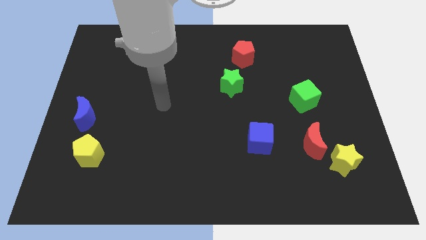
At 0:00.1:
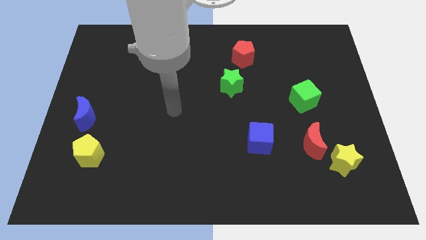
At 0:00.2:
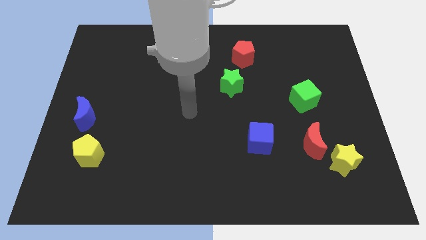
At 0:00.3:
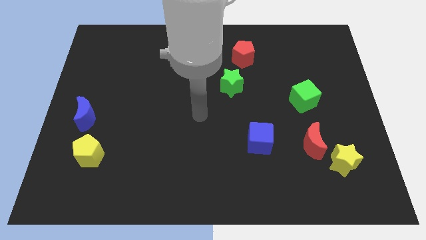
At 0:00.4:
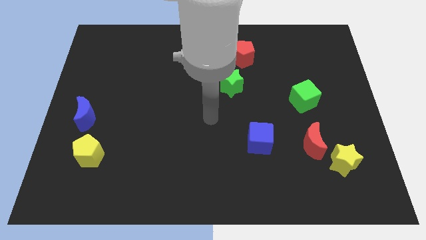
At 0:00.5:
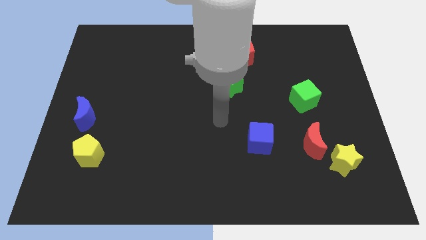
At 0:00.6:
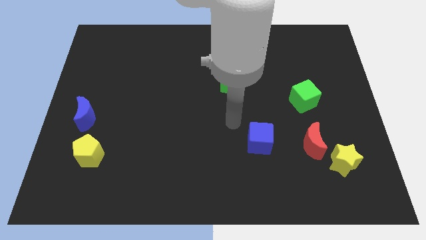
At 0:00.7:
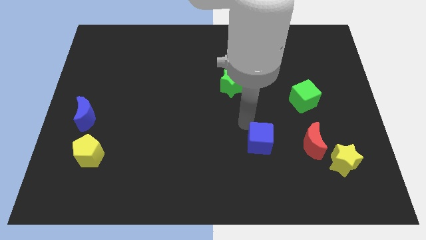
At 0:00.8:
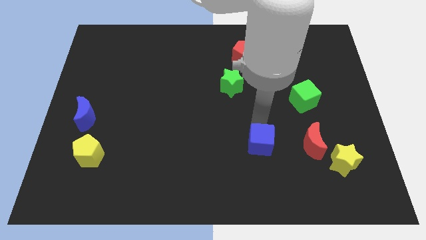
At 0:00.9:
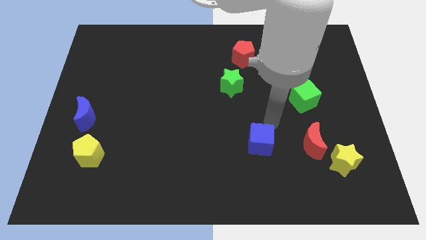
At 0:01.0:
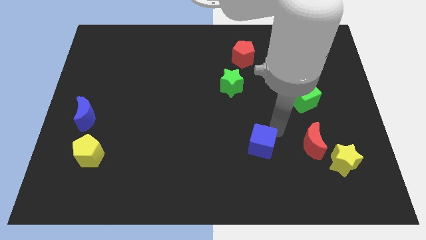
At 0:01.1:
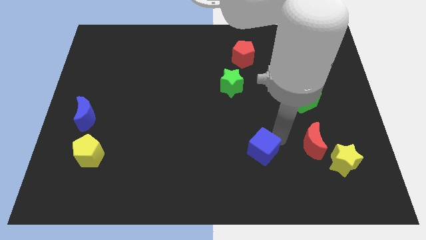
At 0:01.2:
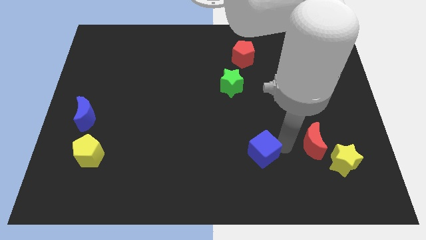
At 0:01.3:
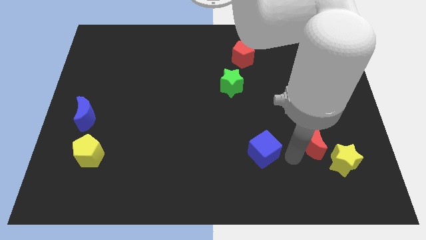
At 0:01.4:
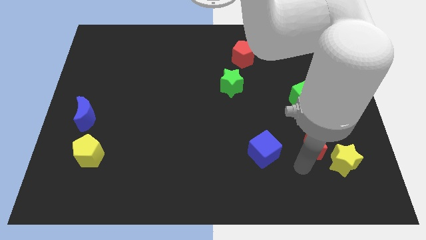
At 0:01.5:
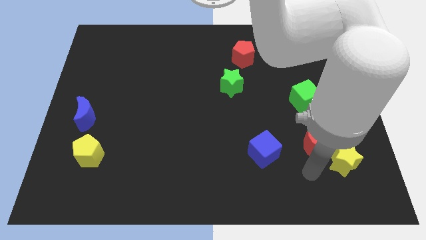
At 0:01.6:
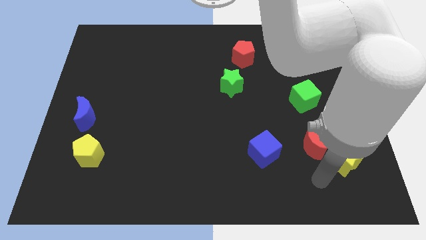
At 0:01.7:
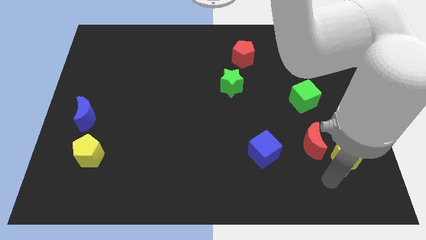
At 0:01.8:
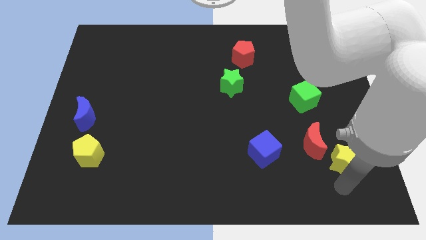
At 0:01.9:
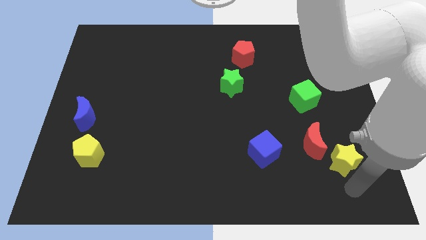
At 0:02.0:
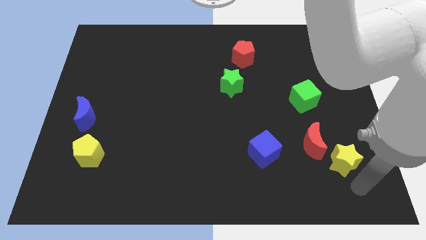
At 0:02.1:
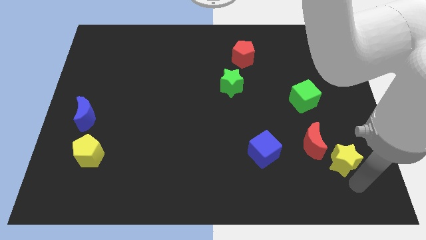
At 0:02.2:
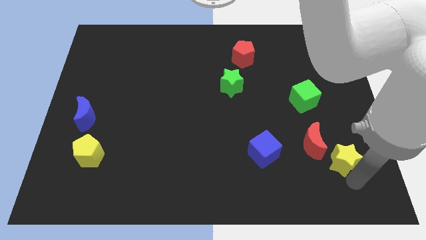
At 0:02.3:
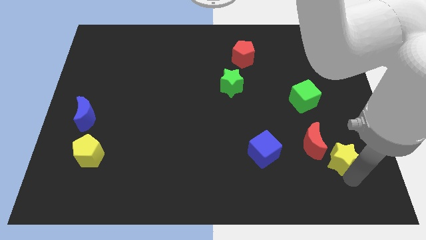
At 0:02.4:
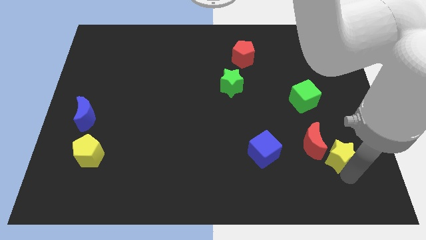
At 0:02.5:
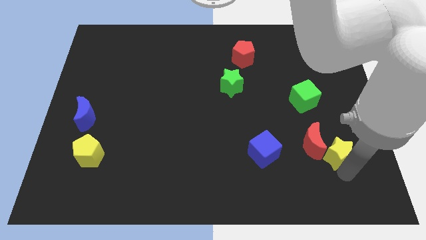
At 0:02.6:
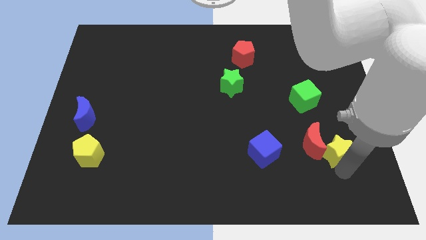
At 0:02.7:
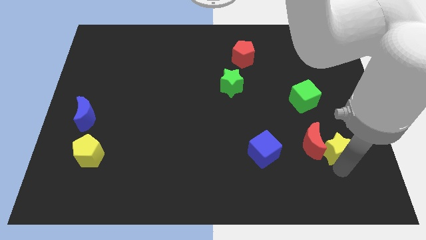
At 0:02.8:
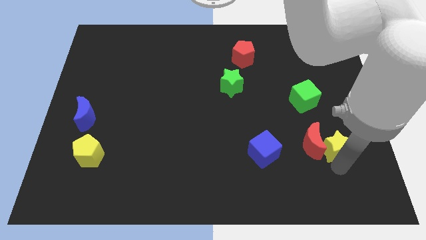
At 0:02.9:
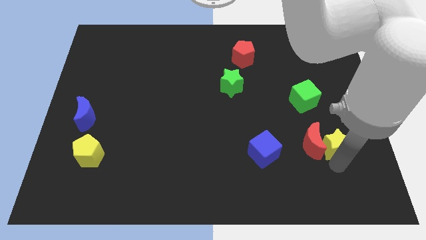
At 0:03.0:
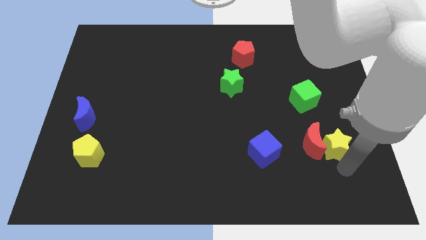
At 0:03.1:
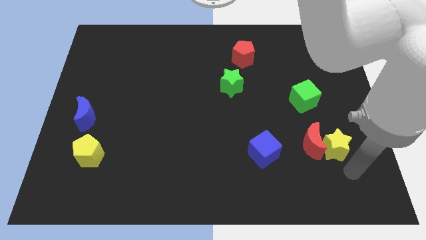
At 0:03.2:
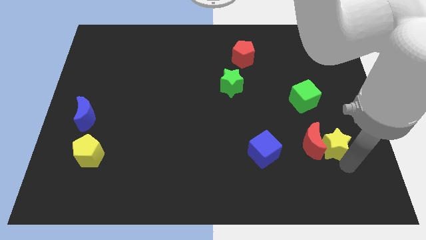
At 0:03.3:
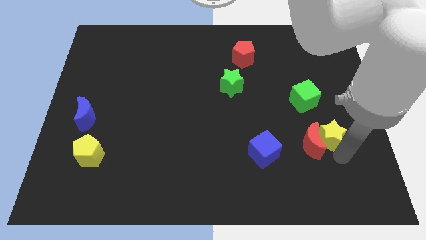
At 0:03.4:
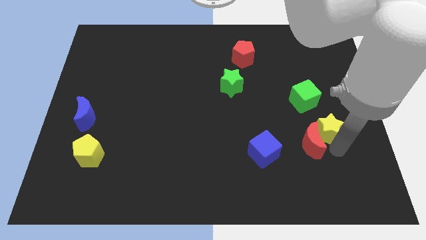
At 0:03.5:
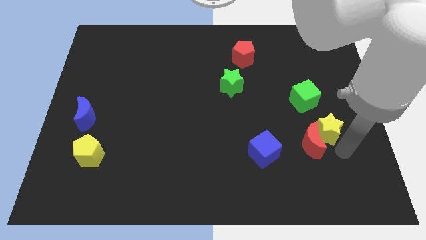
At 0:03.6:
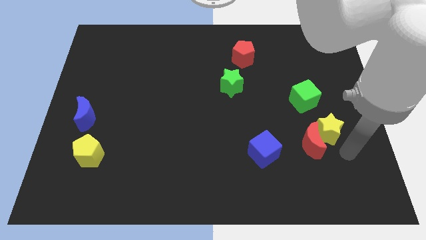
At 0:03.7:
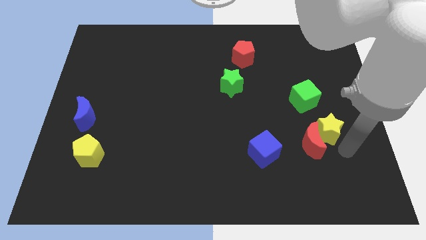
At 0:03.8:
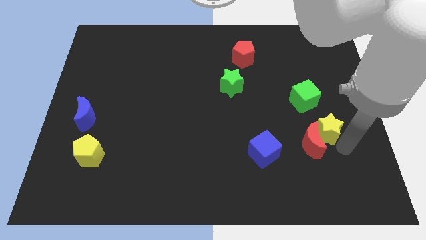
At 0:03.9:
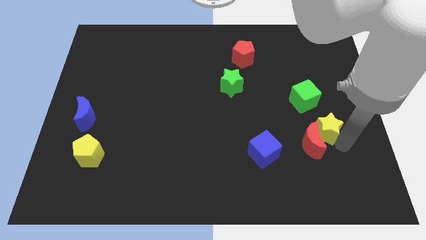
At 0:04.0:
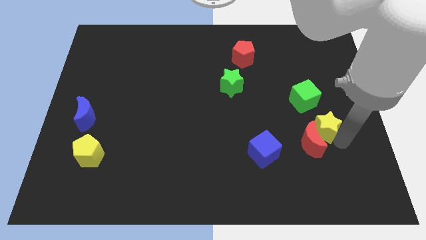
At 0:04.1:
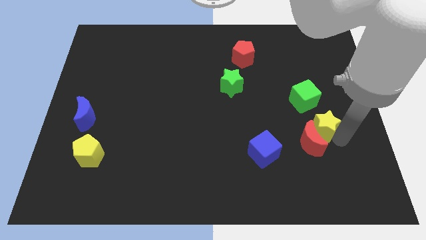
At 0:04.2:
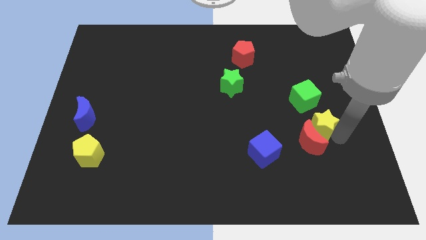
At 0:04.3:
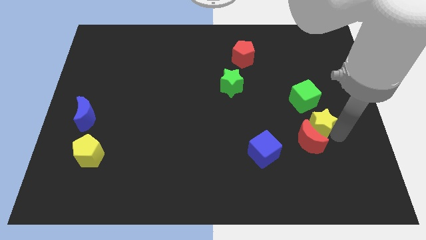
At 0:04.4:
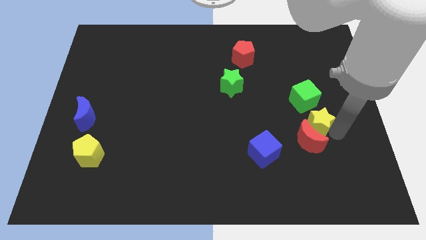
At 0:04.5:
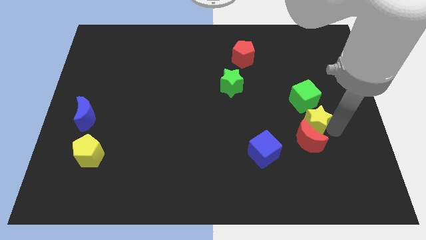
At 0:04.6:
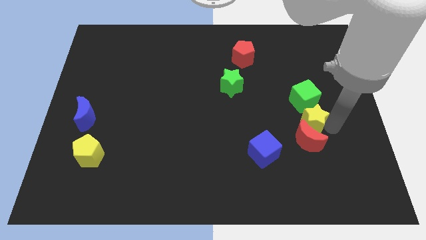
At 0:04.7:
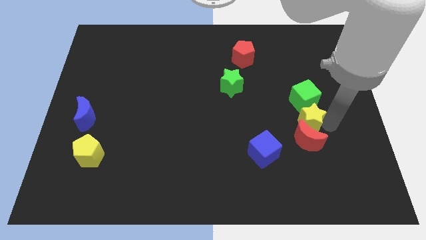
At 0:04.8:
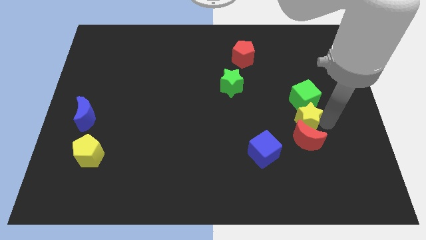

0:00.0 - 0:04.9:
slide the yellow star towards the green cube

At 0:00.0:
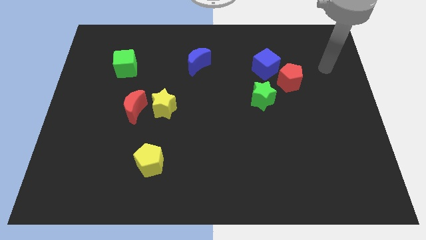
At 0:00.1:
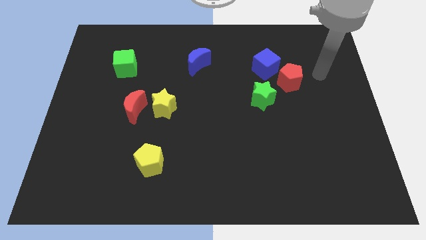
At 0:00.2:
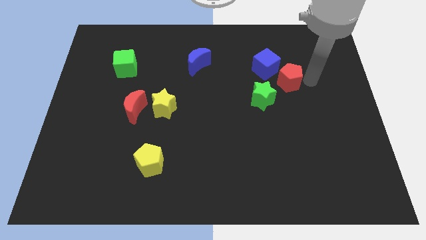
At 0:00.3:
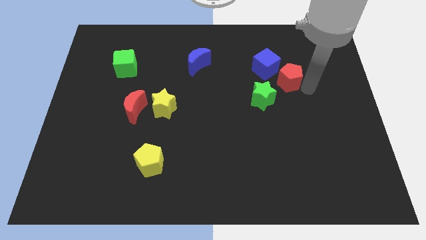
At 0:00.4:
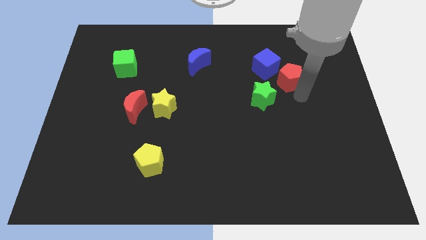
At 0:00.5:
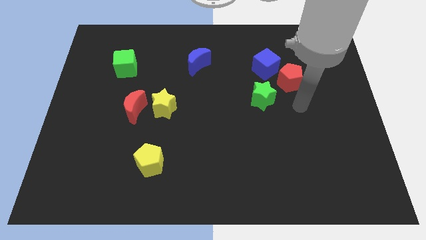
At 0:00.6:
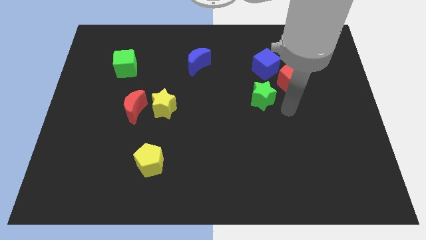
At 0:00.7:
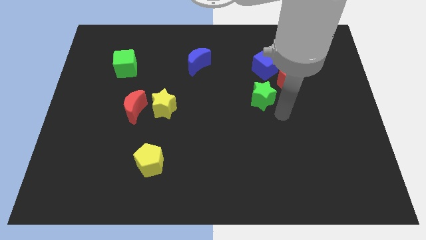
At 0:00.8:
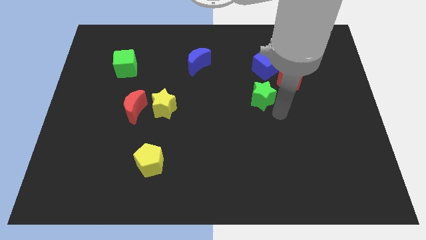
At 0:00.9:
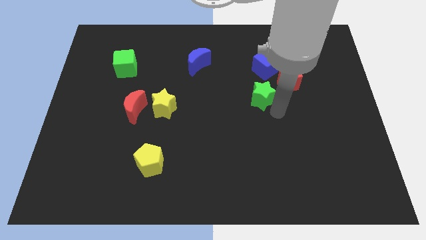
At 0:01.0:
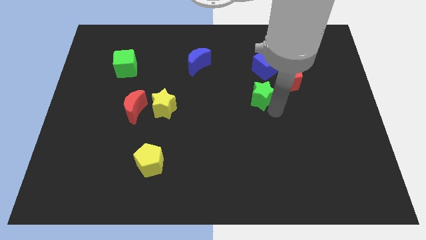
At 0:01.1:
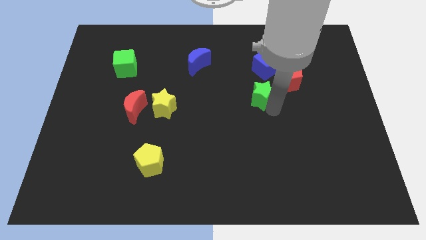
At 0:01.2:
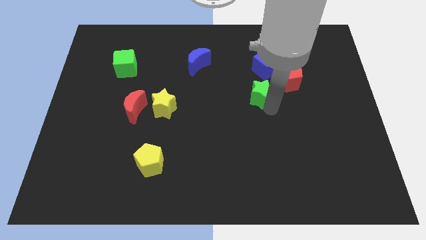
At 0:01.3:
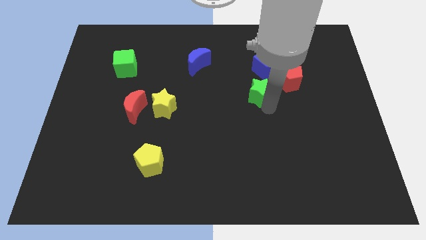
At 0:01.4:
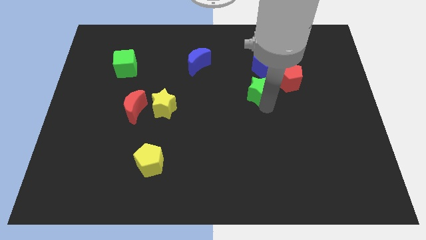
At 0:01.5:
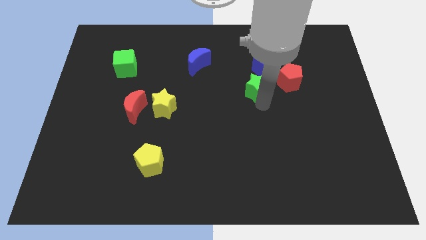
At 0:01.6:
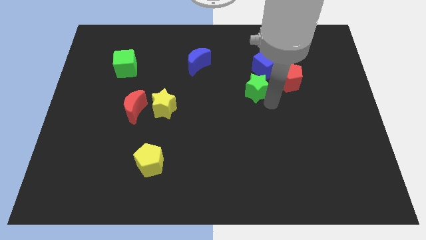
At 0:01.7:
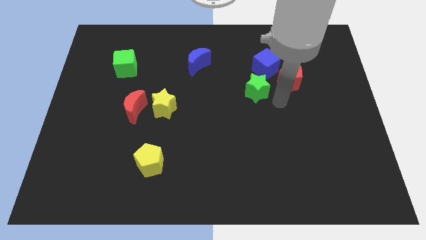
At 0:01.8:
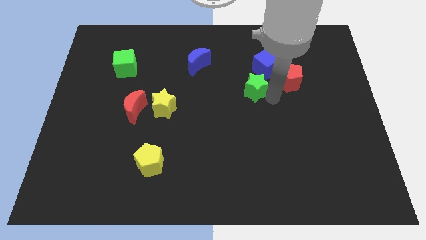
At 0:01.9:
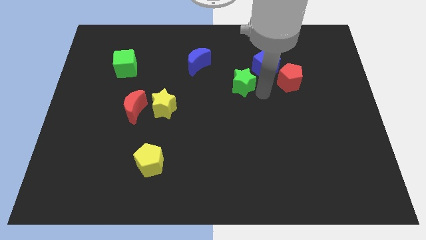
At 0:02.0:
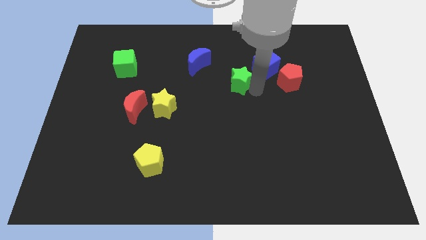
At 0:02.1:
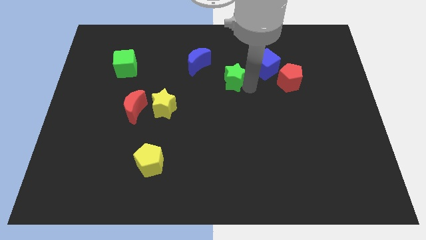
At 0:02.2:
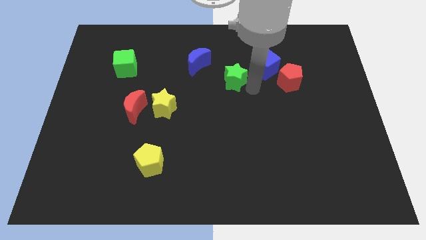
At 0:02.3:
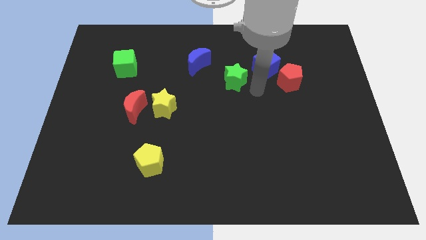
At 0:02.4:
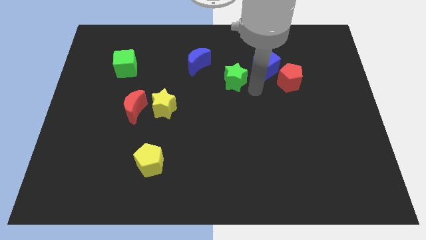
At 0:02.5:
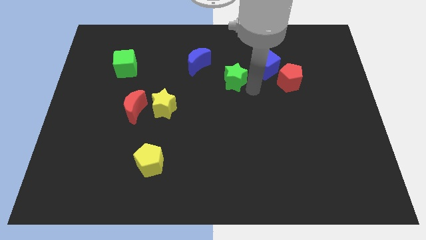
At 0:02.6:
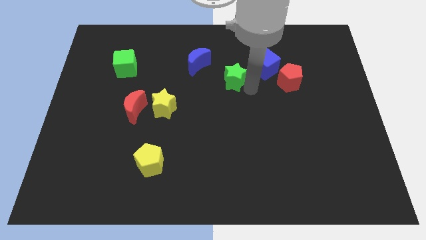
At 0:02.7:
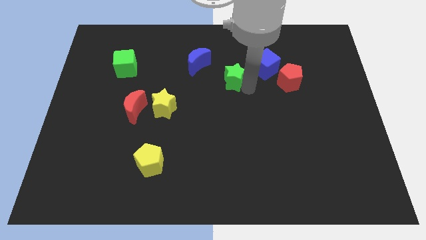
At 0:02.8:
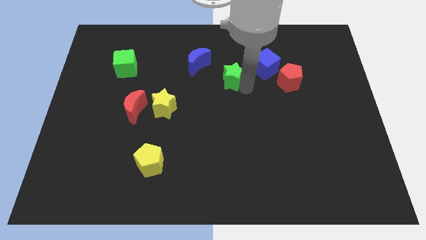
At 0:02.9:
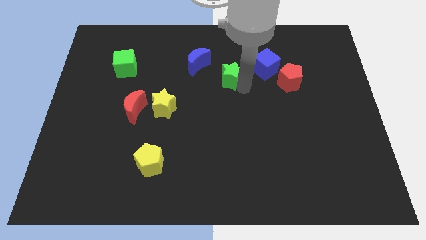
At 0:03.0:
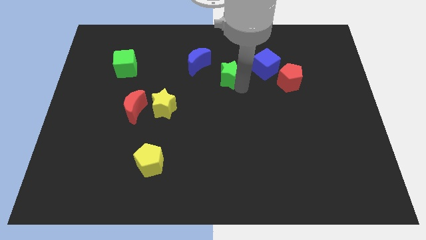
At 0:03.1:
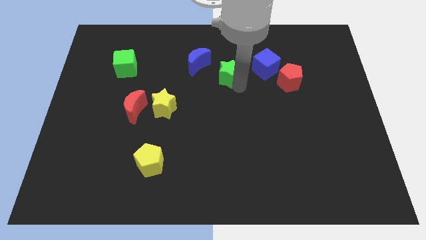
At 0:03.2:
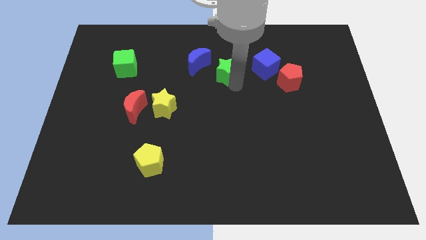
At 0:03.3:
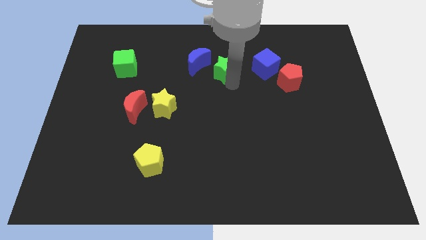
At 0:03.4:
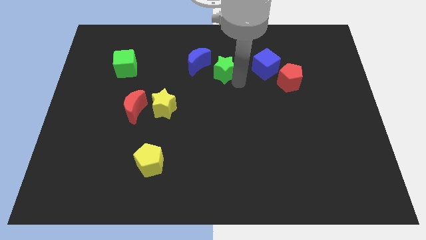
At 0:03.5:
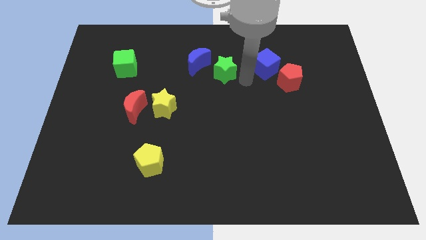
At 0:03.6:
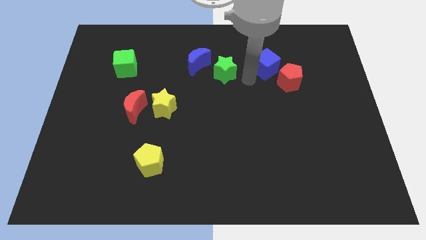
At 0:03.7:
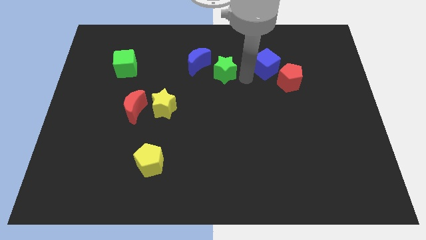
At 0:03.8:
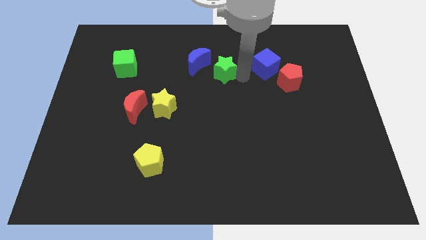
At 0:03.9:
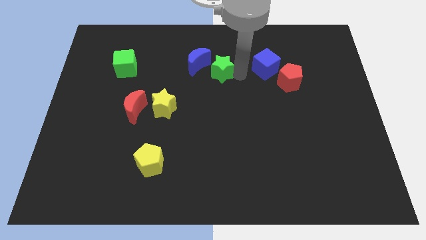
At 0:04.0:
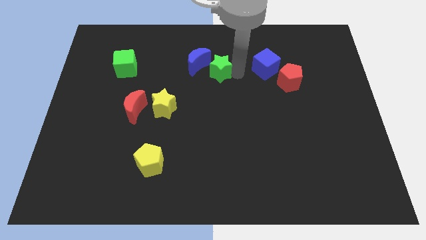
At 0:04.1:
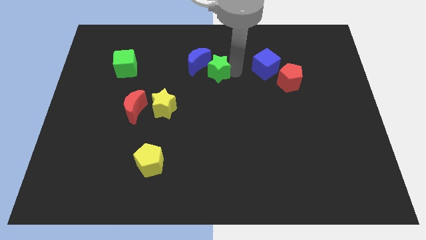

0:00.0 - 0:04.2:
push the green star close to the blue moon
